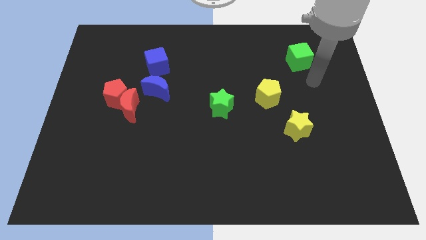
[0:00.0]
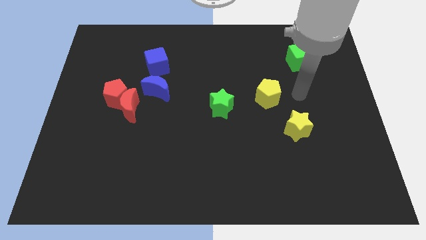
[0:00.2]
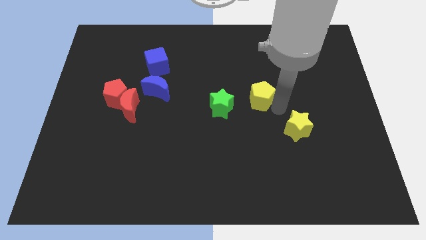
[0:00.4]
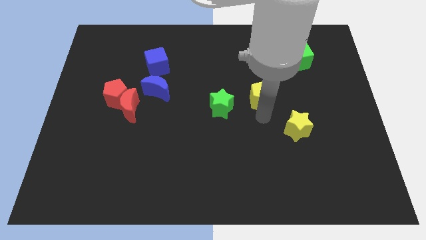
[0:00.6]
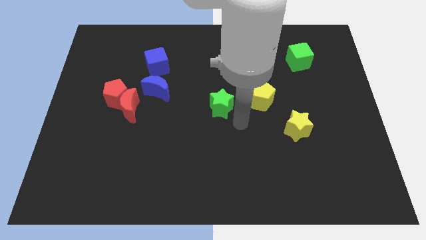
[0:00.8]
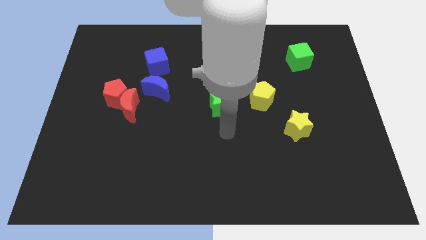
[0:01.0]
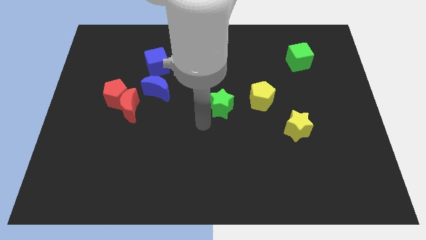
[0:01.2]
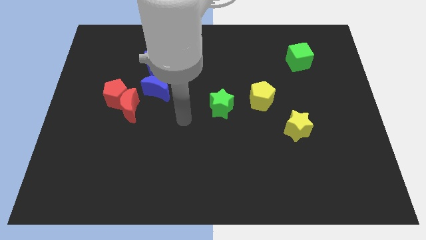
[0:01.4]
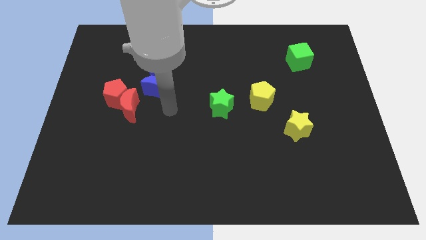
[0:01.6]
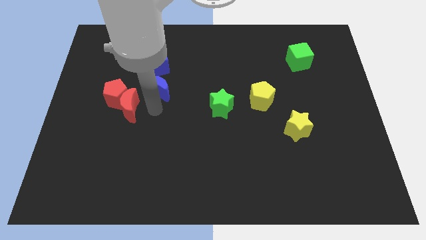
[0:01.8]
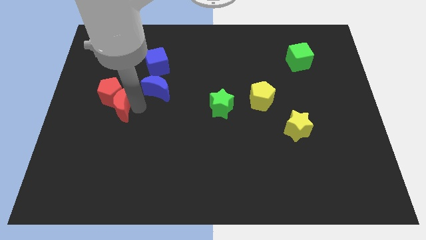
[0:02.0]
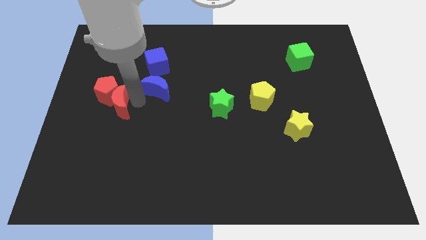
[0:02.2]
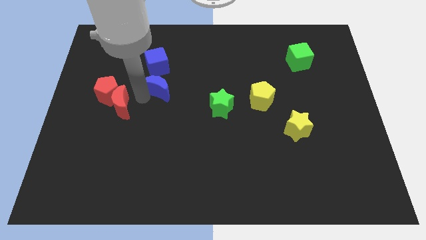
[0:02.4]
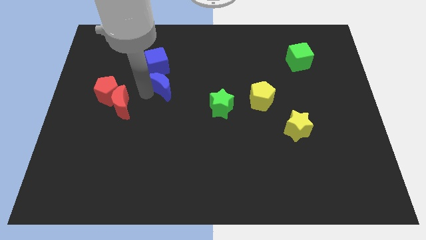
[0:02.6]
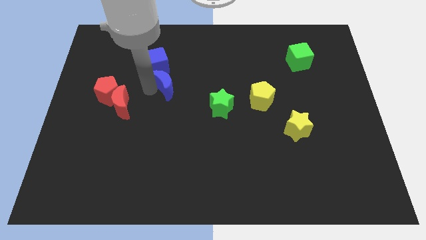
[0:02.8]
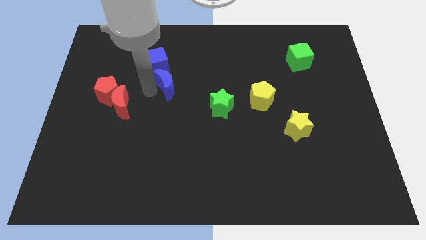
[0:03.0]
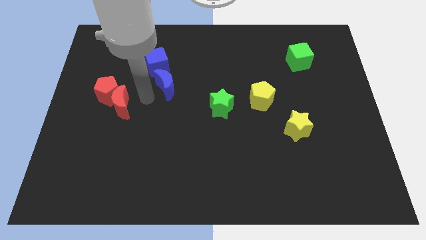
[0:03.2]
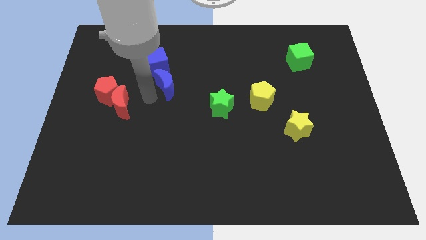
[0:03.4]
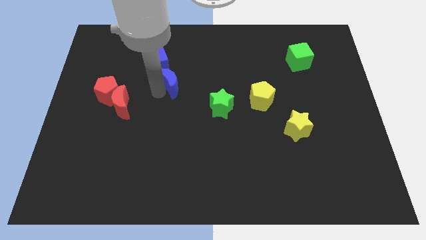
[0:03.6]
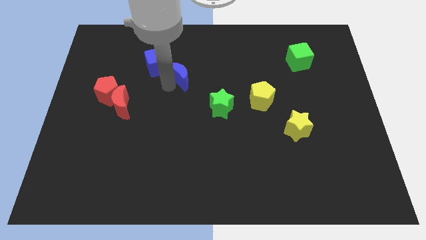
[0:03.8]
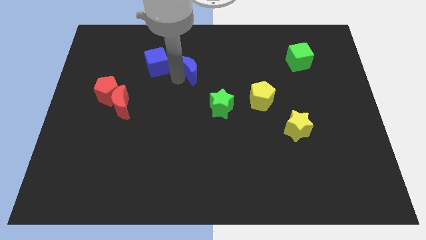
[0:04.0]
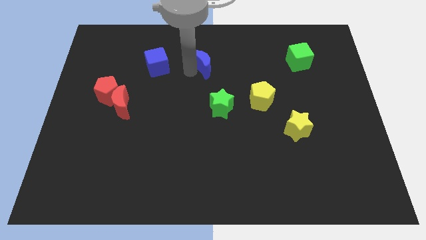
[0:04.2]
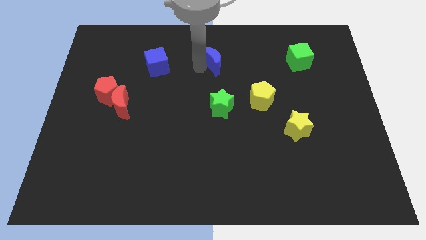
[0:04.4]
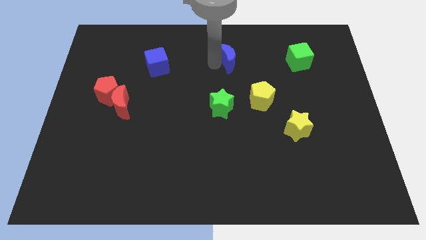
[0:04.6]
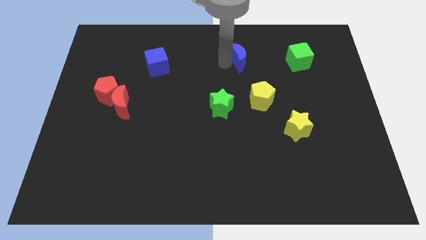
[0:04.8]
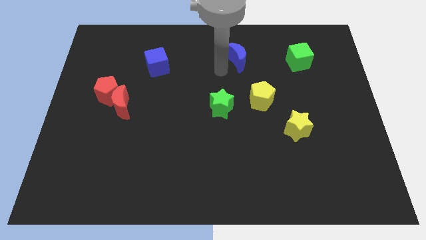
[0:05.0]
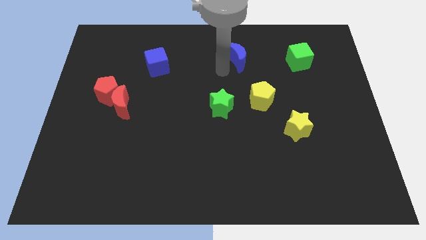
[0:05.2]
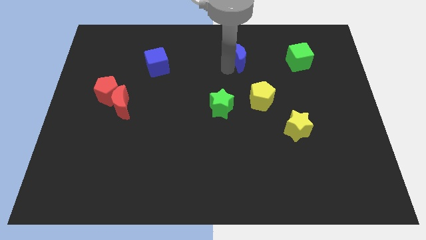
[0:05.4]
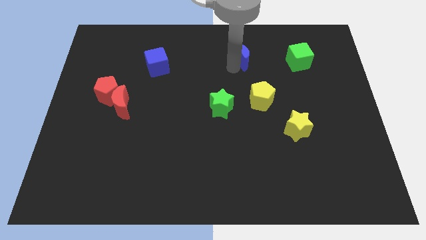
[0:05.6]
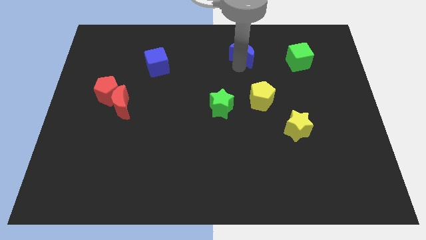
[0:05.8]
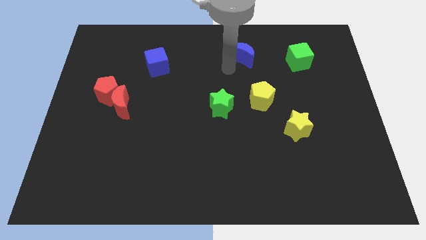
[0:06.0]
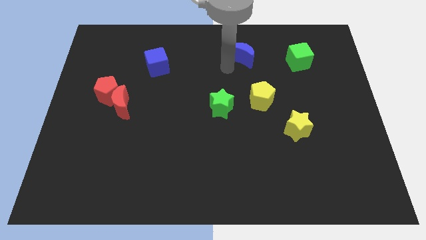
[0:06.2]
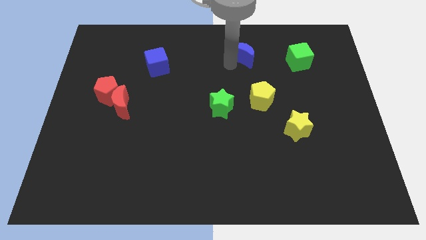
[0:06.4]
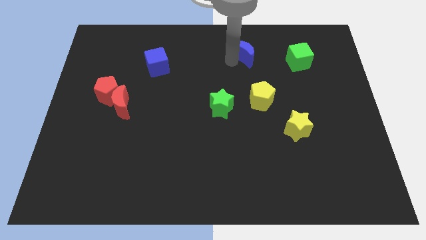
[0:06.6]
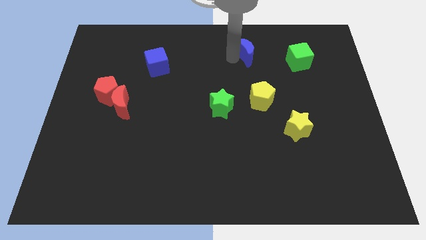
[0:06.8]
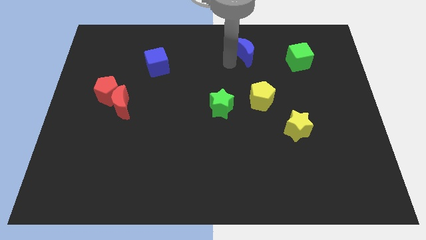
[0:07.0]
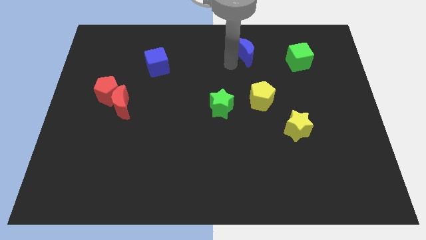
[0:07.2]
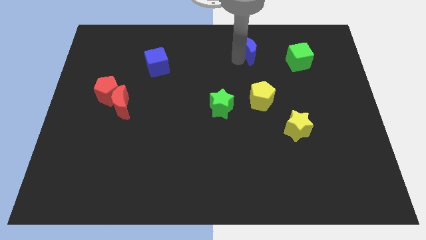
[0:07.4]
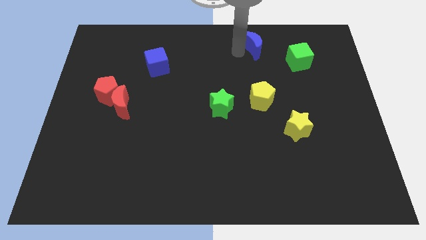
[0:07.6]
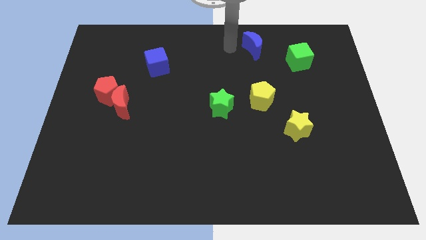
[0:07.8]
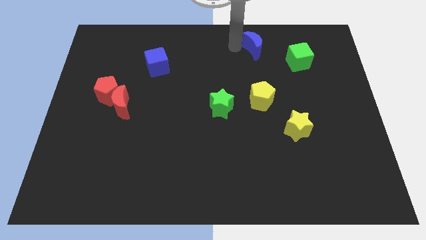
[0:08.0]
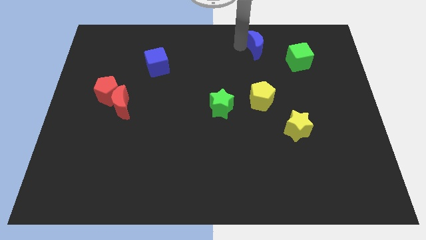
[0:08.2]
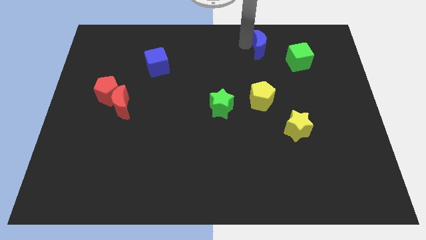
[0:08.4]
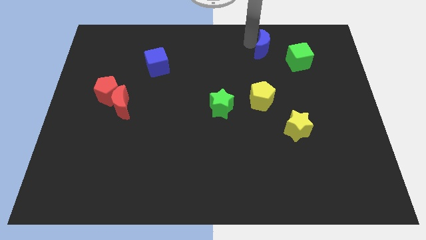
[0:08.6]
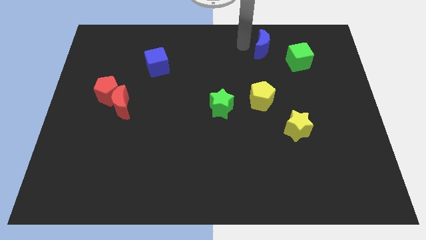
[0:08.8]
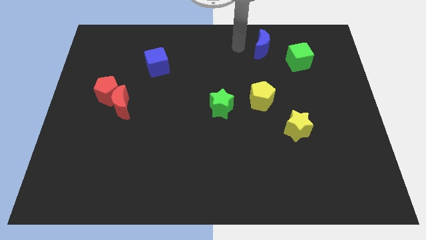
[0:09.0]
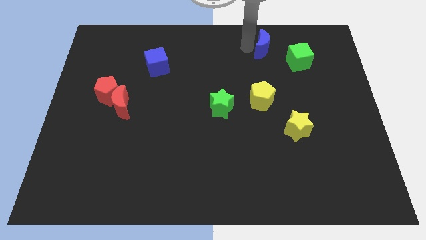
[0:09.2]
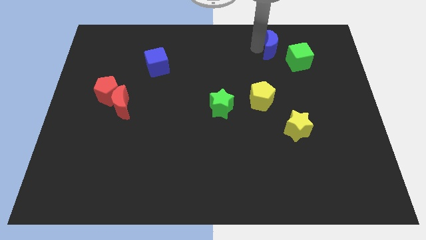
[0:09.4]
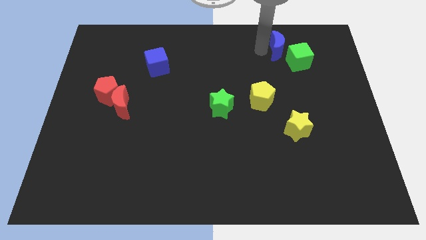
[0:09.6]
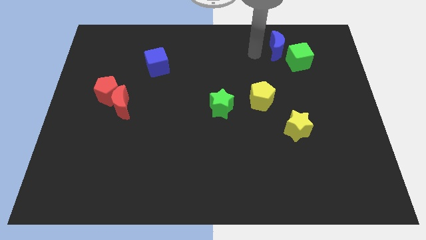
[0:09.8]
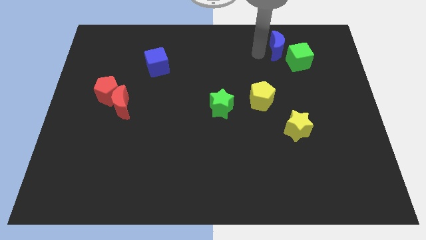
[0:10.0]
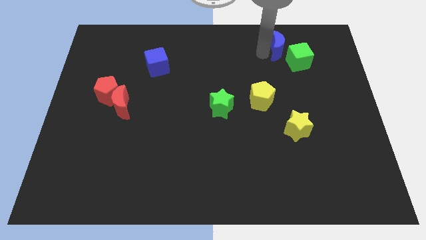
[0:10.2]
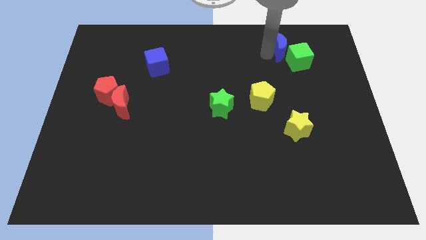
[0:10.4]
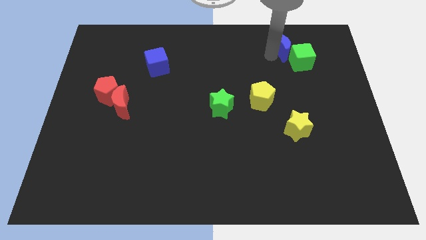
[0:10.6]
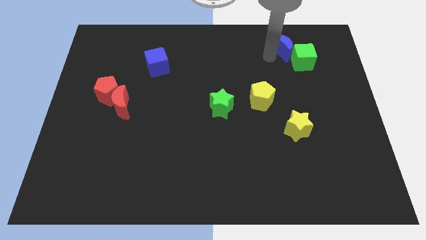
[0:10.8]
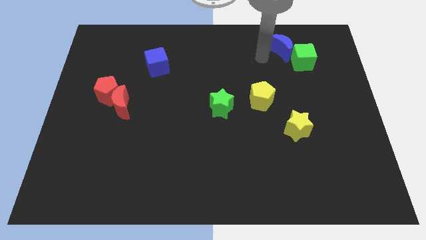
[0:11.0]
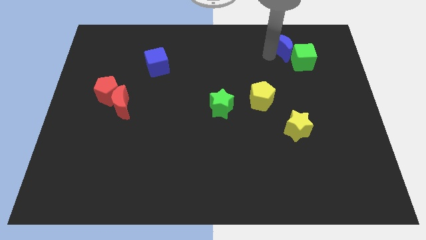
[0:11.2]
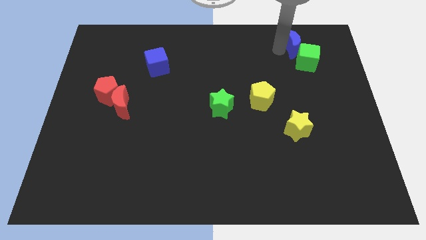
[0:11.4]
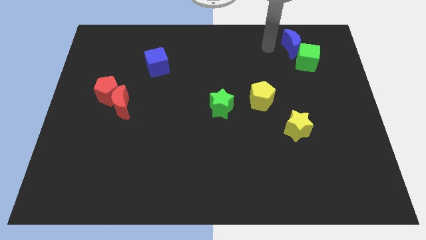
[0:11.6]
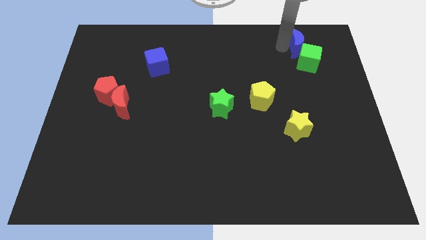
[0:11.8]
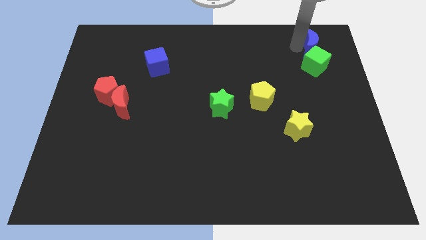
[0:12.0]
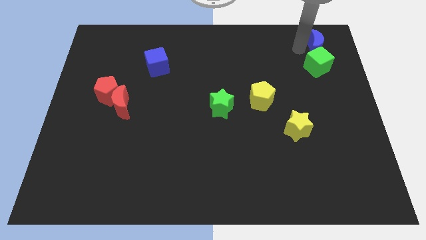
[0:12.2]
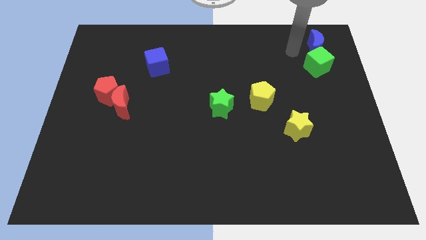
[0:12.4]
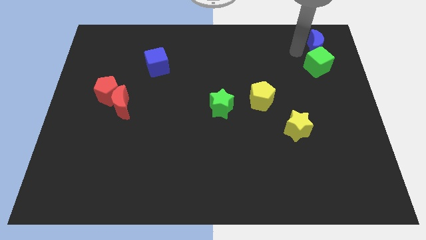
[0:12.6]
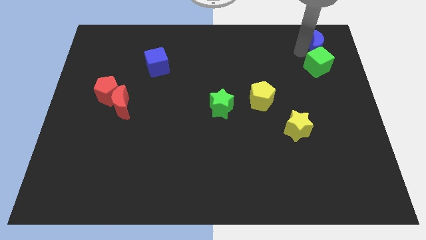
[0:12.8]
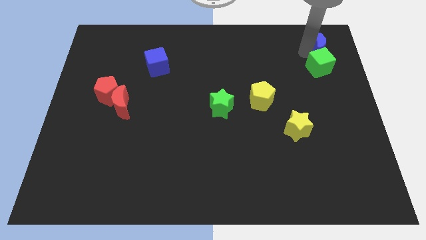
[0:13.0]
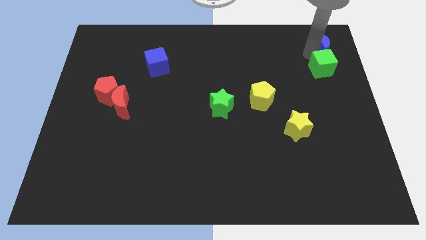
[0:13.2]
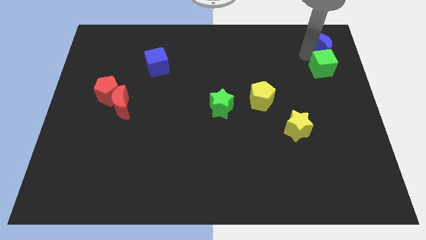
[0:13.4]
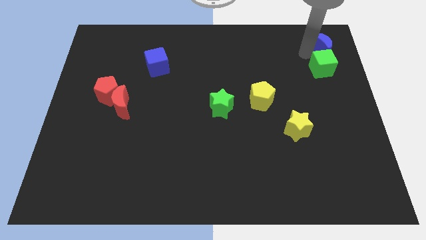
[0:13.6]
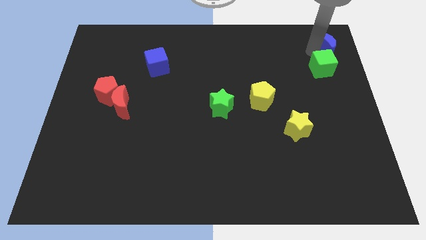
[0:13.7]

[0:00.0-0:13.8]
slide the blue moon to the top right corner
